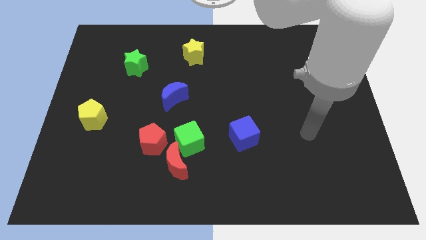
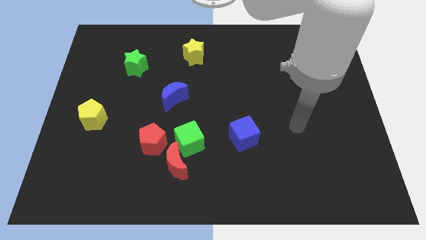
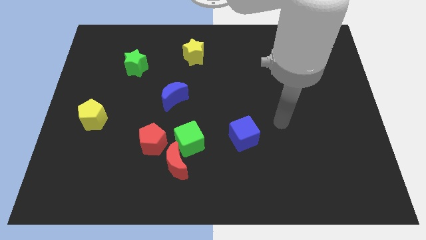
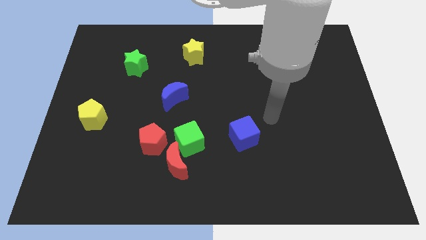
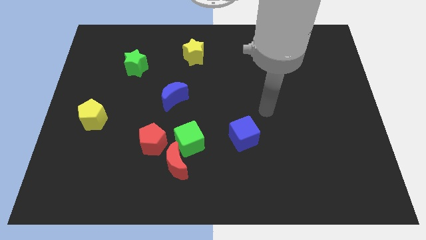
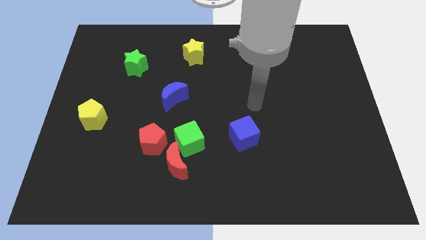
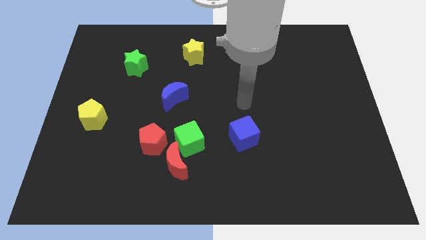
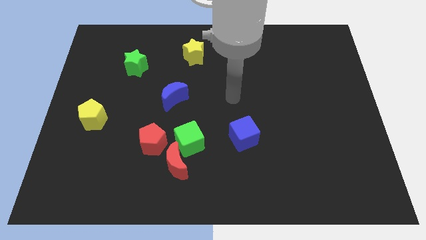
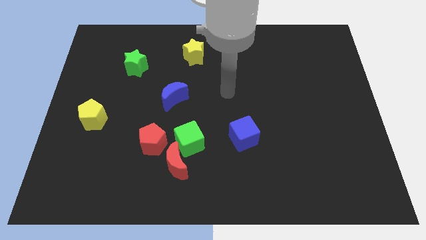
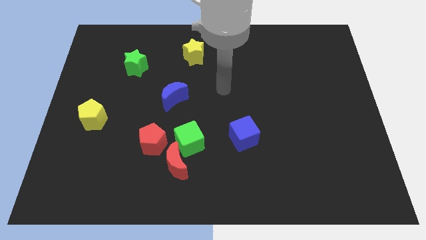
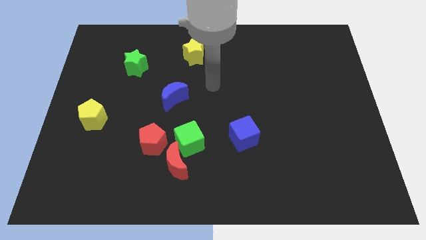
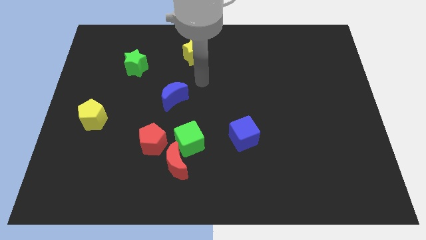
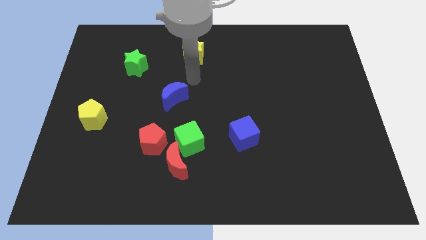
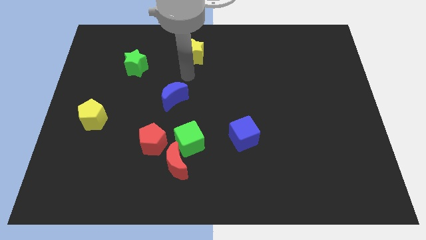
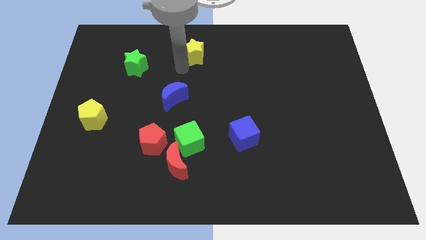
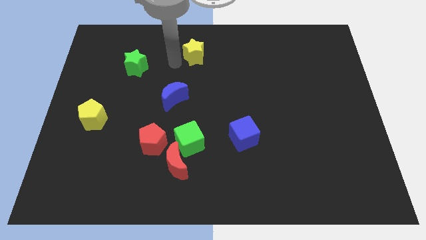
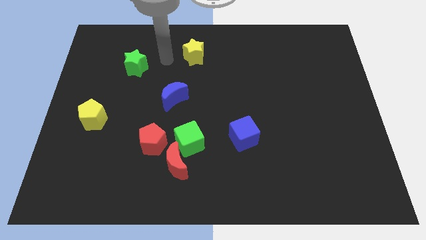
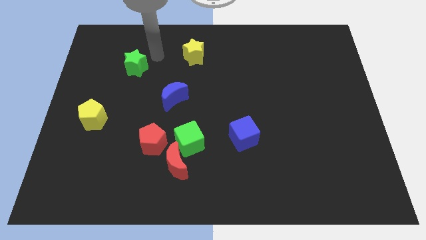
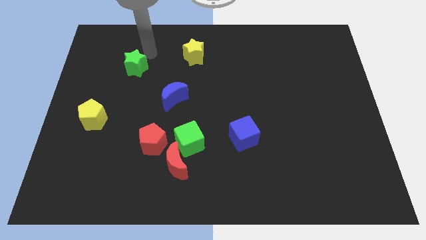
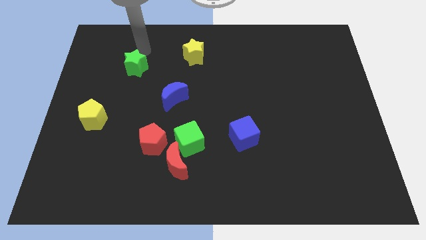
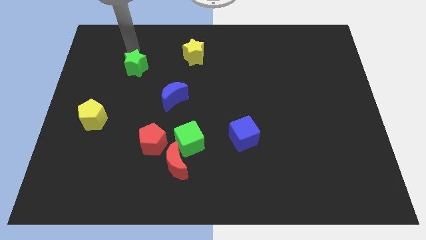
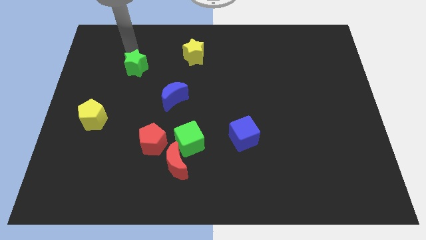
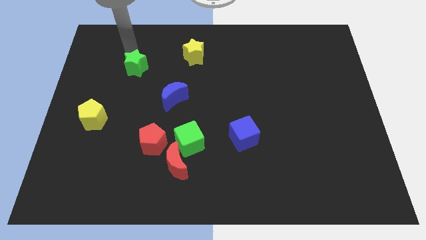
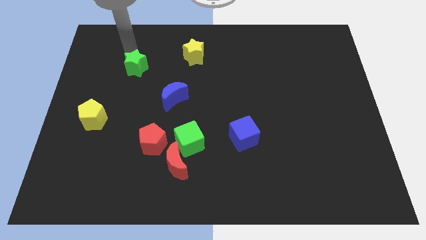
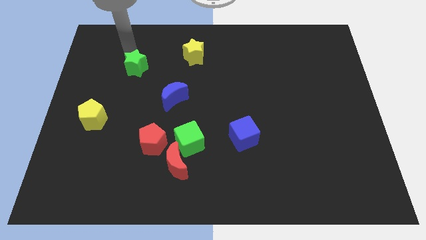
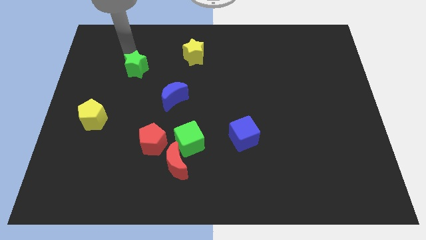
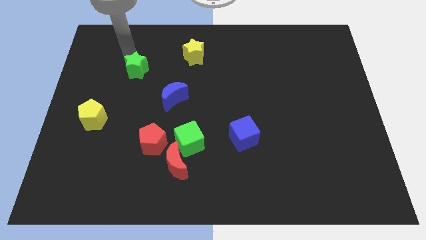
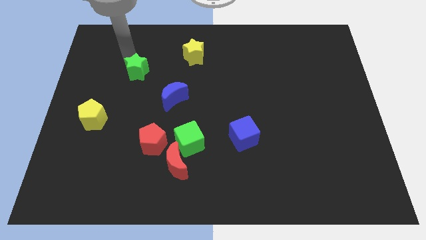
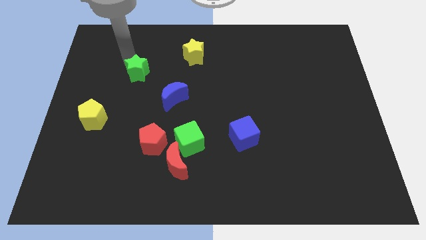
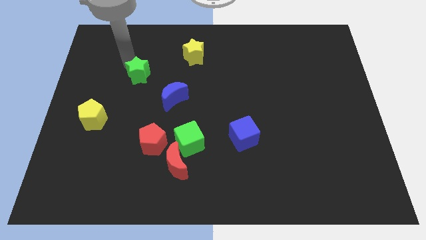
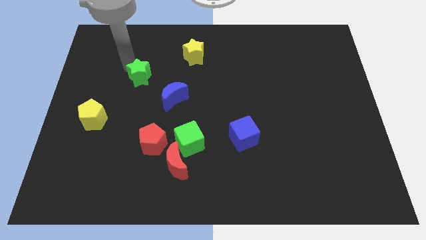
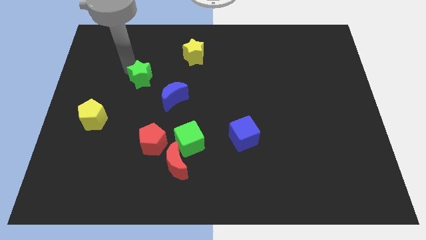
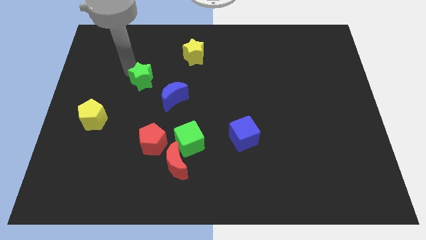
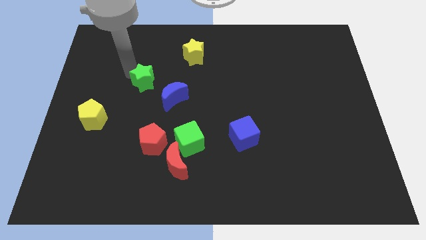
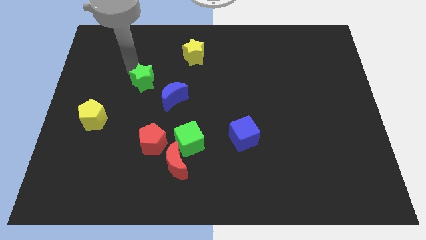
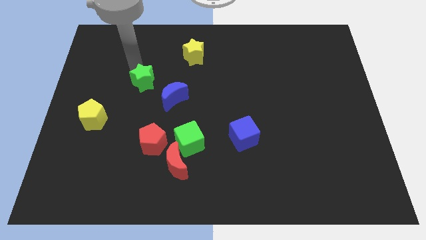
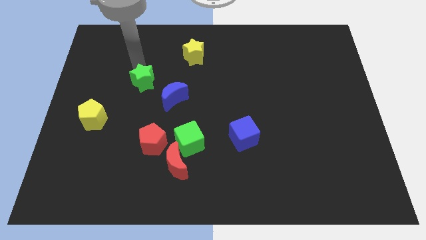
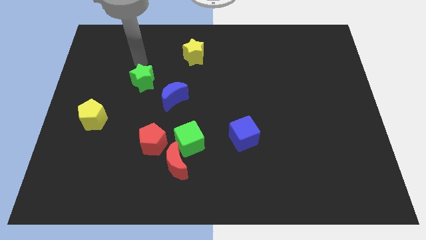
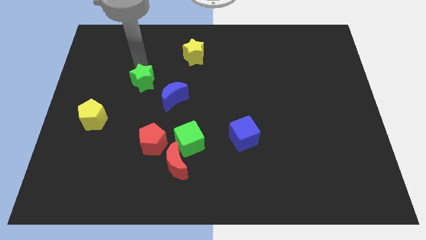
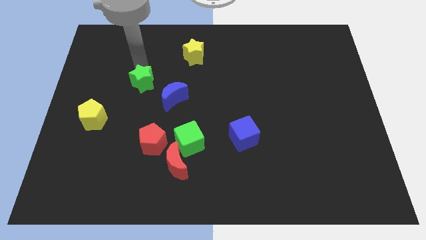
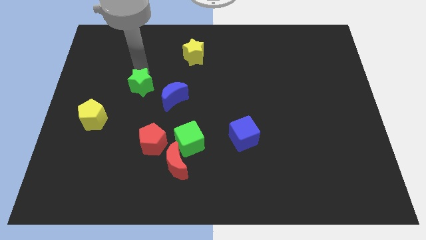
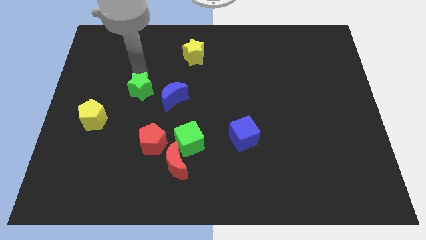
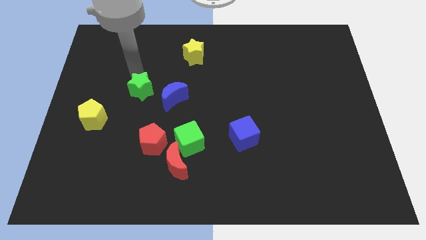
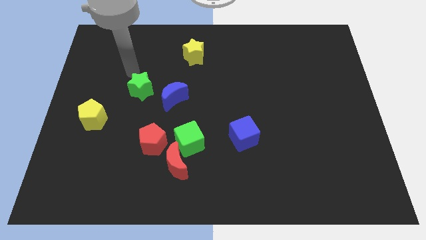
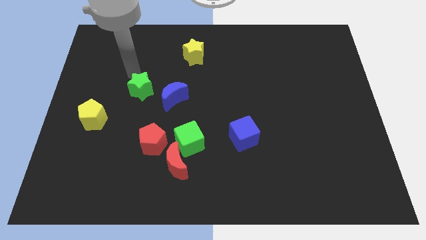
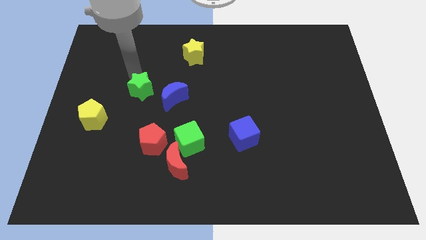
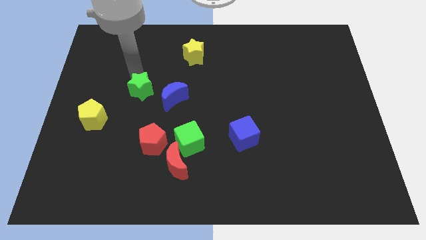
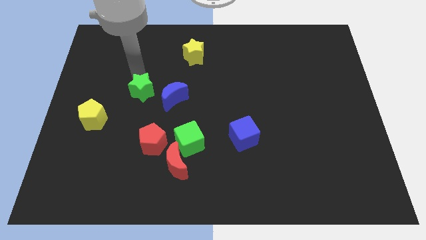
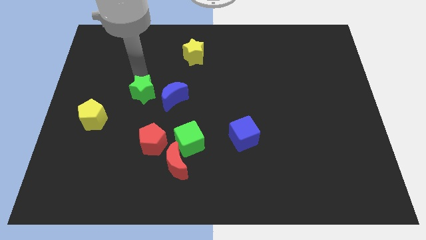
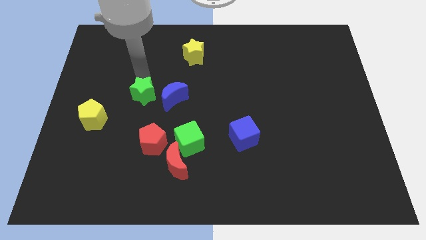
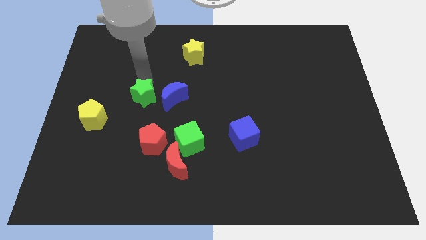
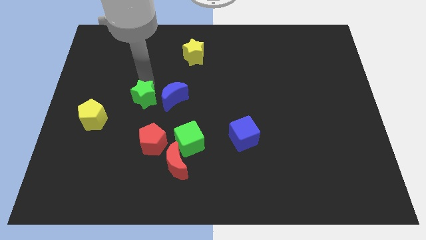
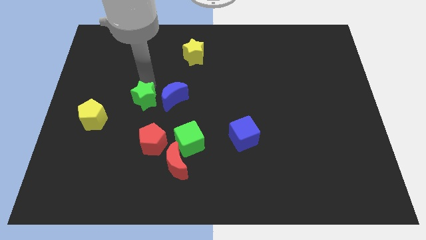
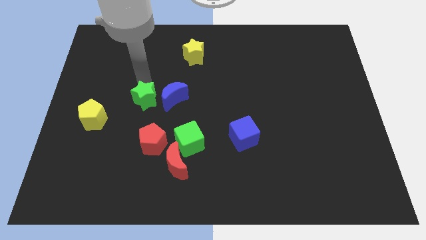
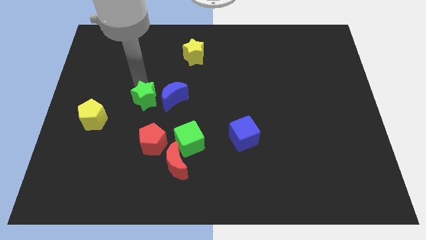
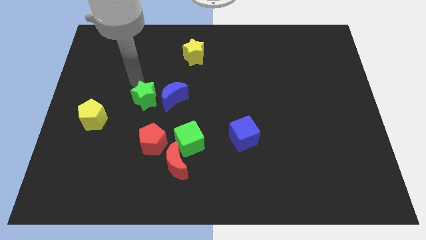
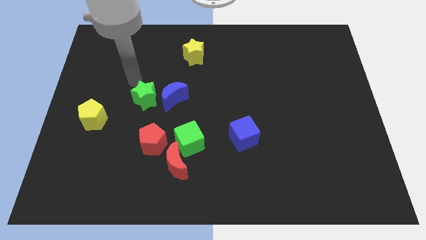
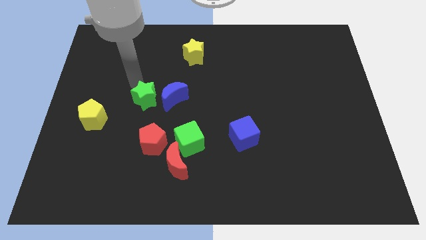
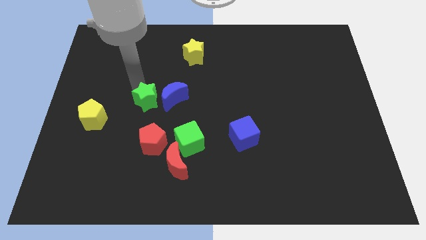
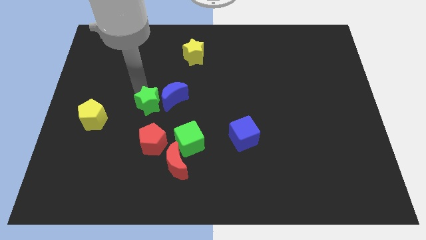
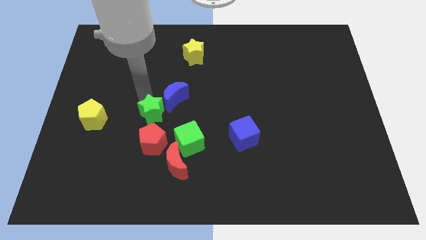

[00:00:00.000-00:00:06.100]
move the green star to the bottom of the blue moon
